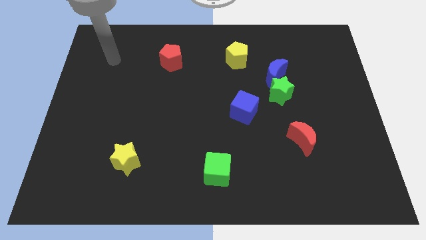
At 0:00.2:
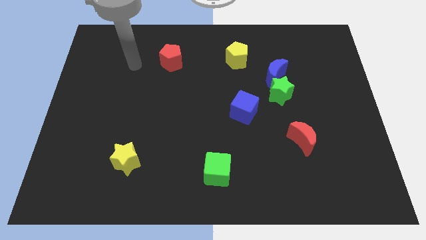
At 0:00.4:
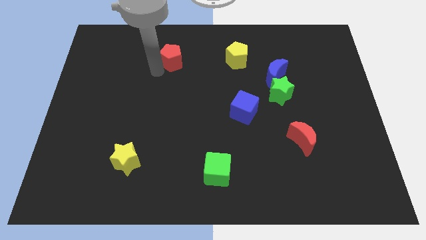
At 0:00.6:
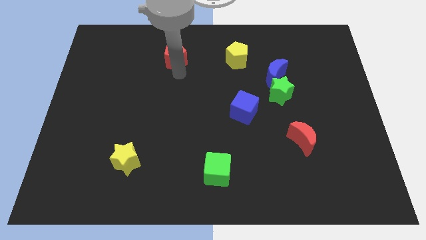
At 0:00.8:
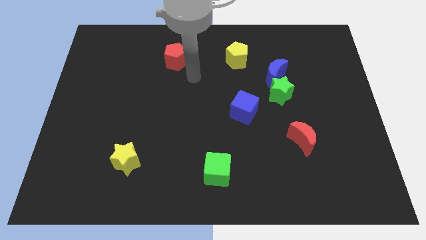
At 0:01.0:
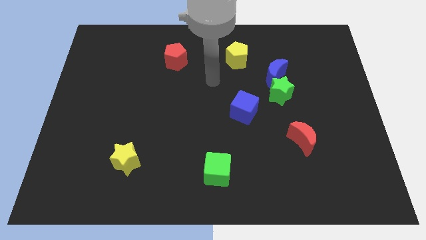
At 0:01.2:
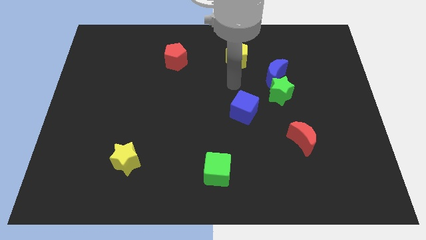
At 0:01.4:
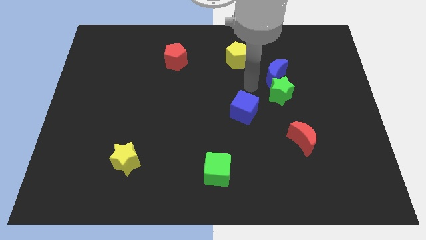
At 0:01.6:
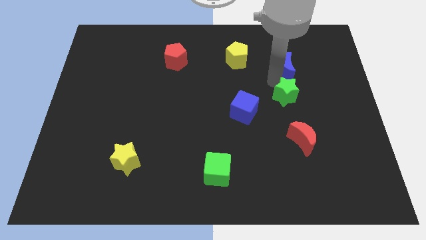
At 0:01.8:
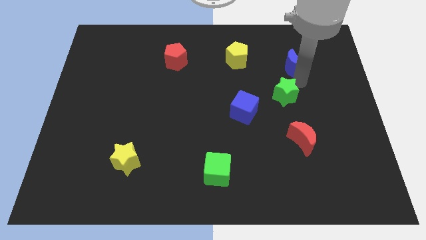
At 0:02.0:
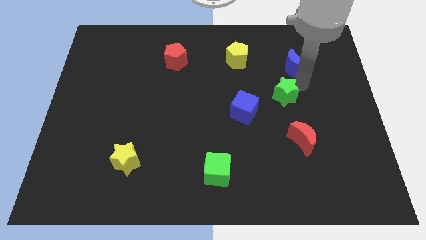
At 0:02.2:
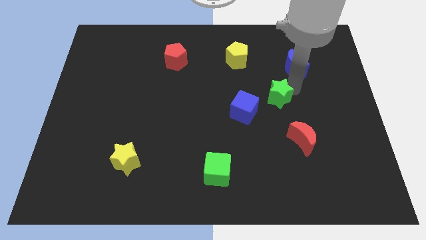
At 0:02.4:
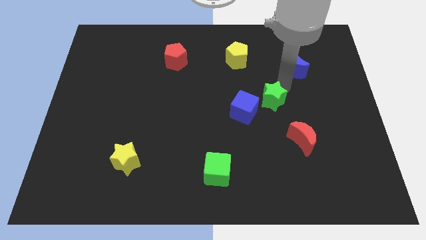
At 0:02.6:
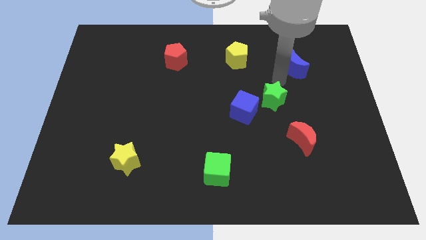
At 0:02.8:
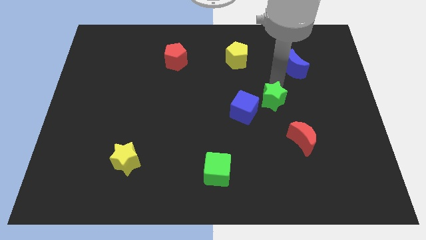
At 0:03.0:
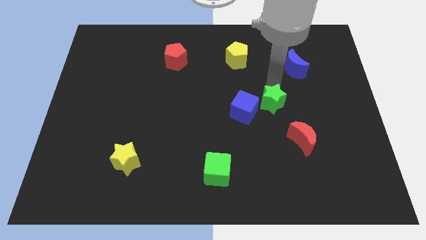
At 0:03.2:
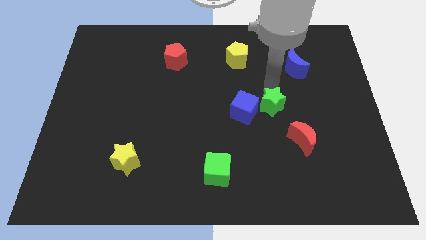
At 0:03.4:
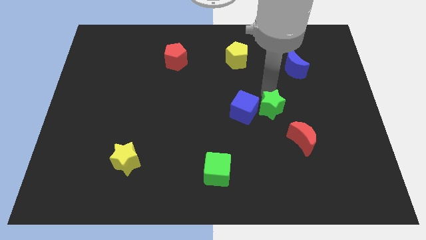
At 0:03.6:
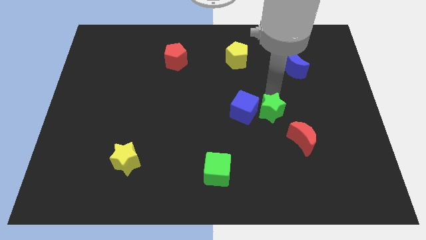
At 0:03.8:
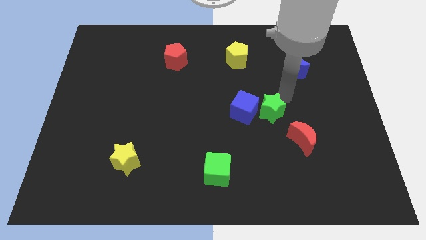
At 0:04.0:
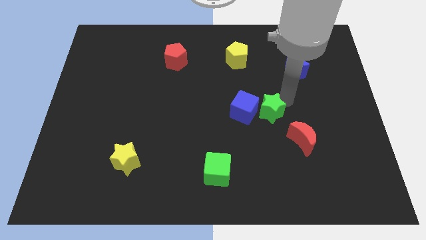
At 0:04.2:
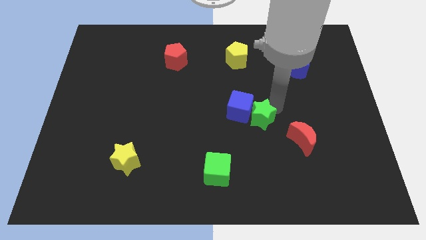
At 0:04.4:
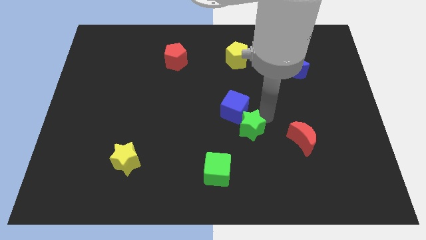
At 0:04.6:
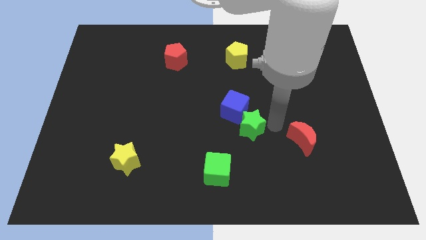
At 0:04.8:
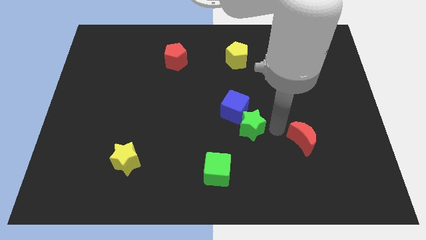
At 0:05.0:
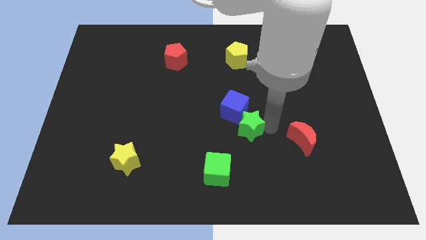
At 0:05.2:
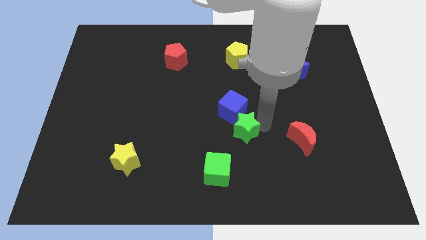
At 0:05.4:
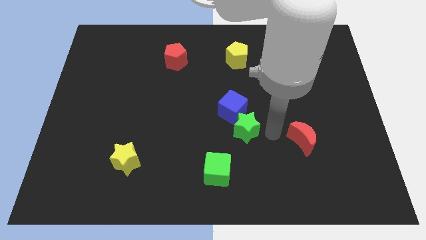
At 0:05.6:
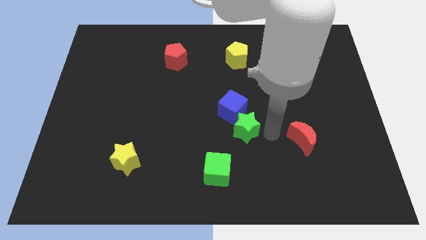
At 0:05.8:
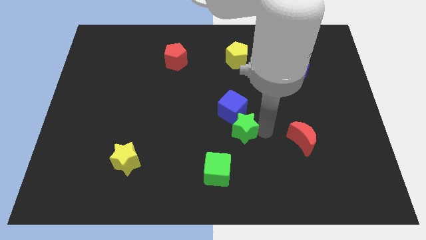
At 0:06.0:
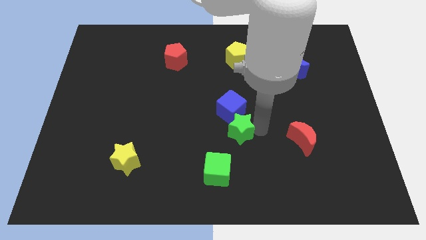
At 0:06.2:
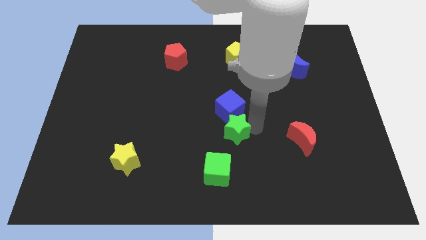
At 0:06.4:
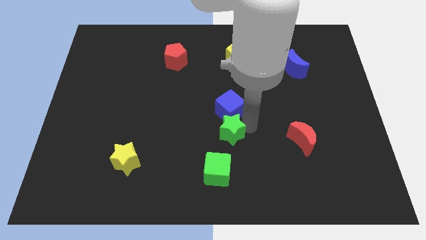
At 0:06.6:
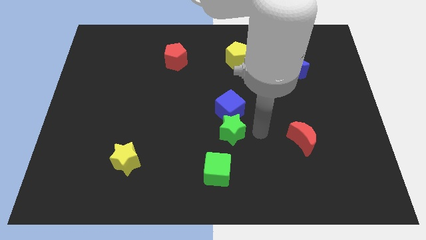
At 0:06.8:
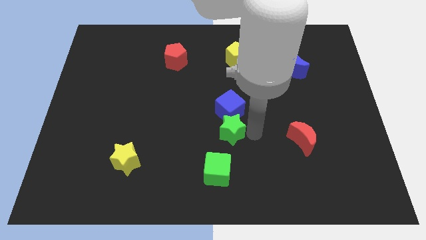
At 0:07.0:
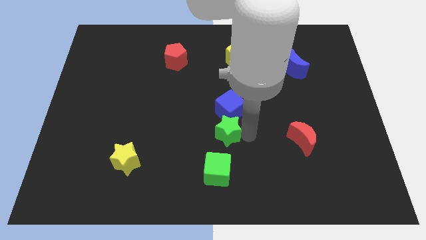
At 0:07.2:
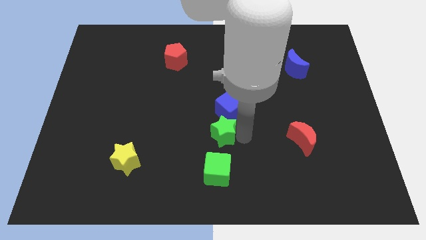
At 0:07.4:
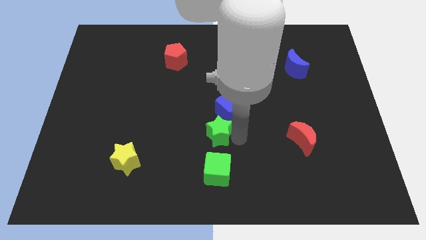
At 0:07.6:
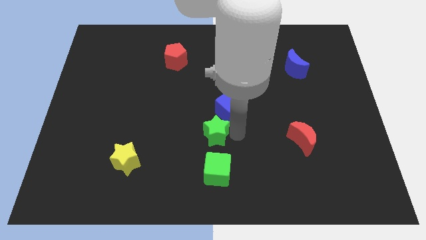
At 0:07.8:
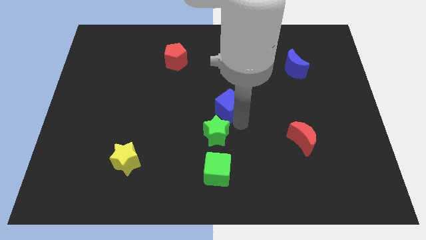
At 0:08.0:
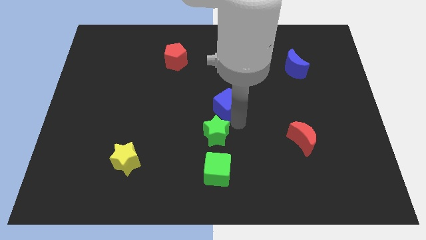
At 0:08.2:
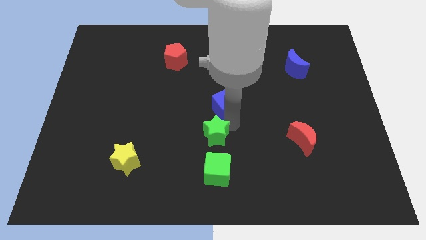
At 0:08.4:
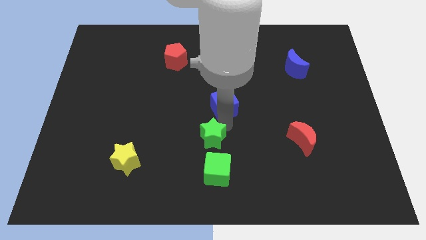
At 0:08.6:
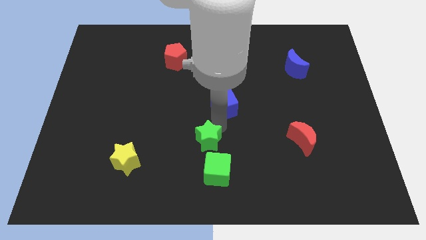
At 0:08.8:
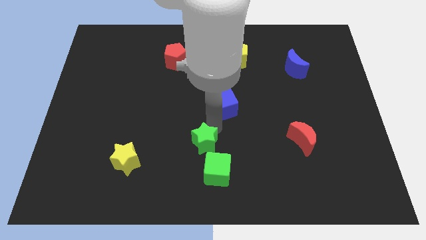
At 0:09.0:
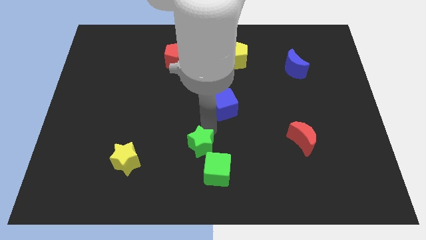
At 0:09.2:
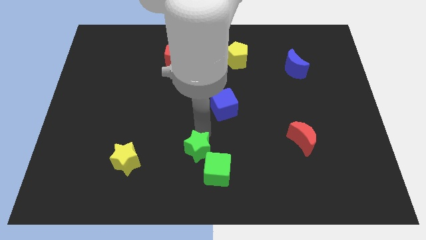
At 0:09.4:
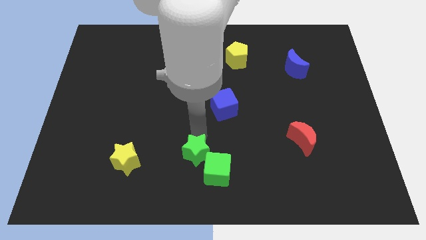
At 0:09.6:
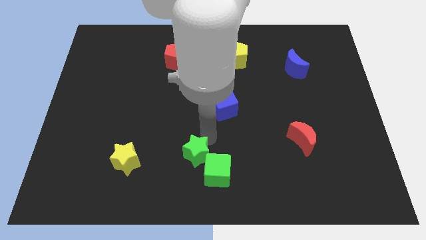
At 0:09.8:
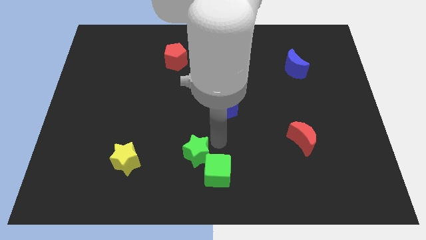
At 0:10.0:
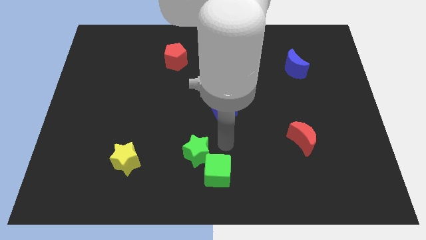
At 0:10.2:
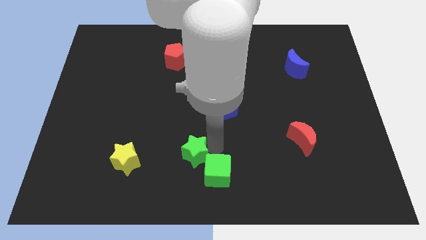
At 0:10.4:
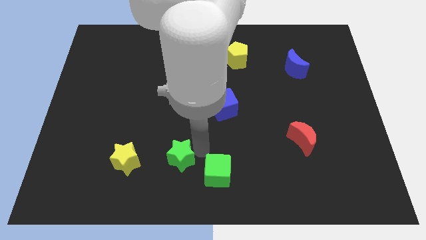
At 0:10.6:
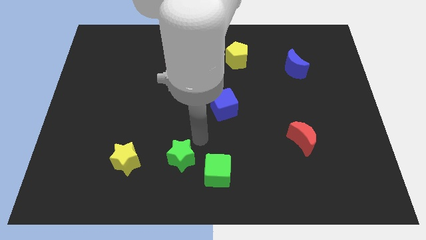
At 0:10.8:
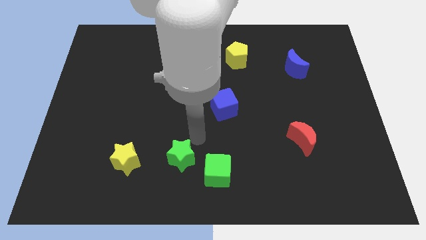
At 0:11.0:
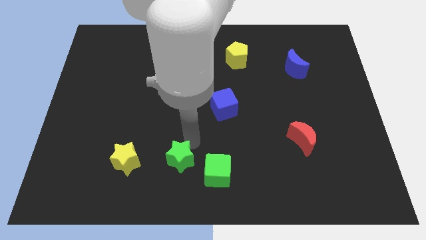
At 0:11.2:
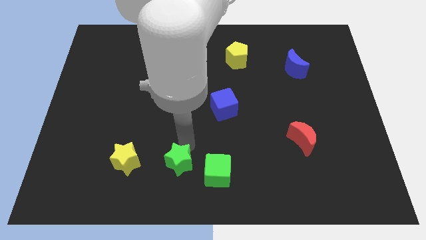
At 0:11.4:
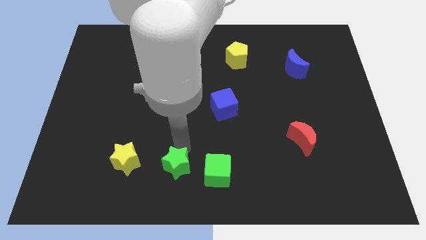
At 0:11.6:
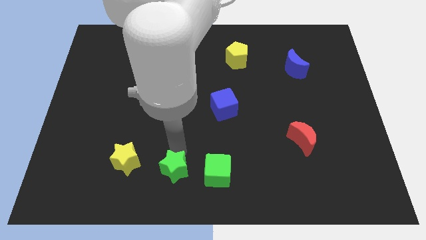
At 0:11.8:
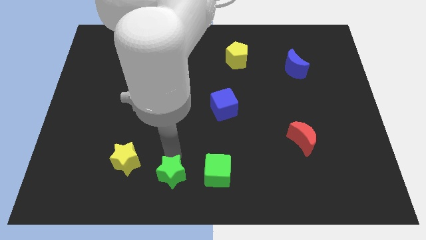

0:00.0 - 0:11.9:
move the green star diagonally down and to the right of the yellow star

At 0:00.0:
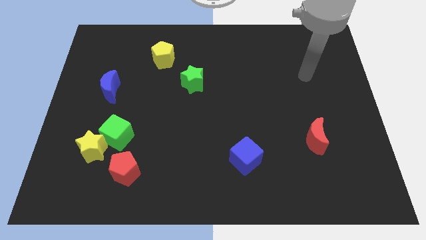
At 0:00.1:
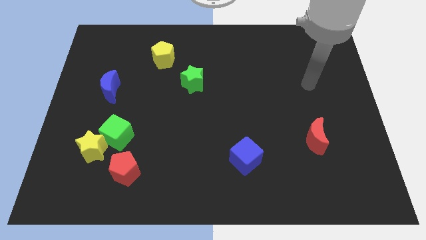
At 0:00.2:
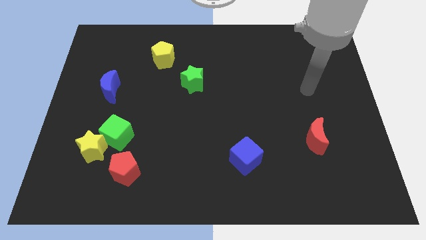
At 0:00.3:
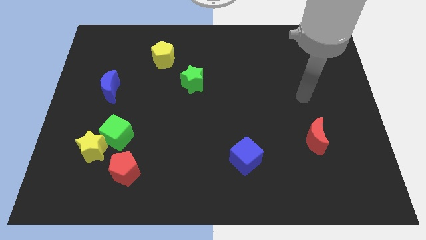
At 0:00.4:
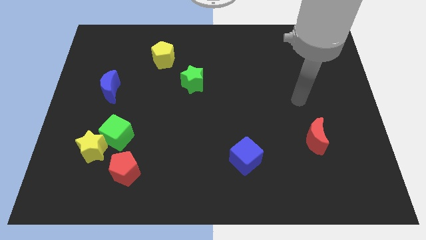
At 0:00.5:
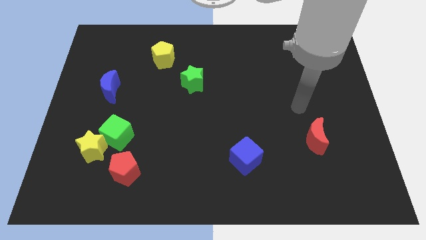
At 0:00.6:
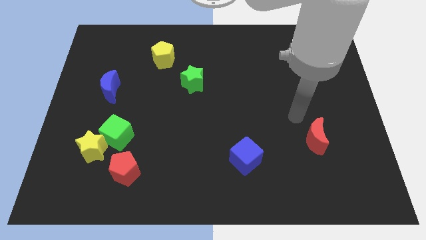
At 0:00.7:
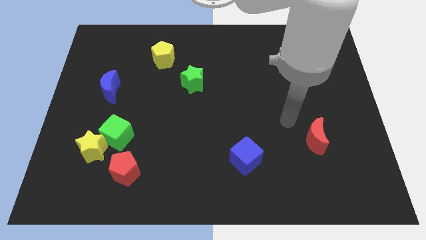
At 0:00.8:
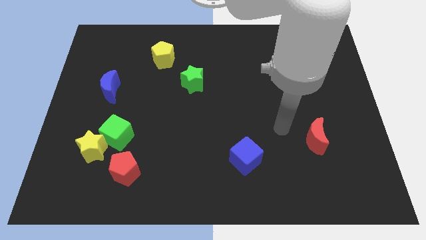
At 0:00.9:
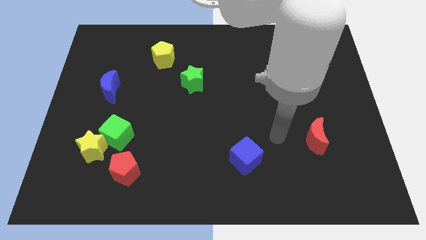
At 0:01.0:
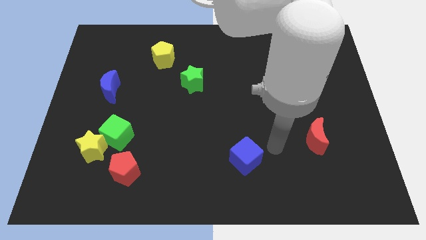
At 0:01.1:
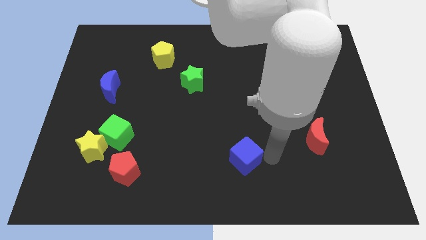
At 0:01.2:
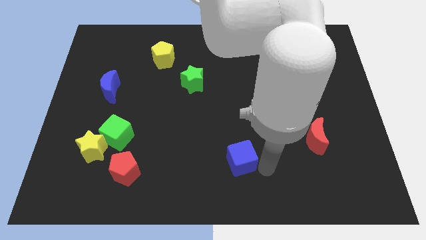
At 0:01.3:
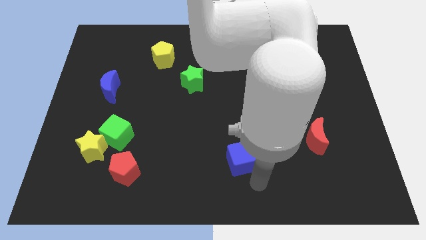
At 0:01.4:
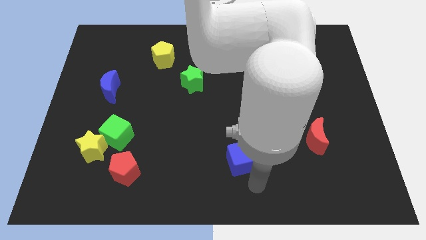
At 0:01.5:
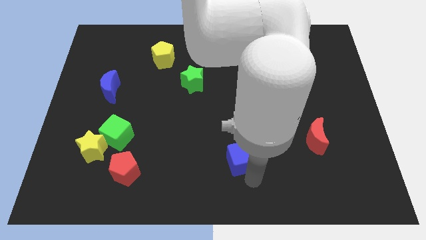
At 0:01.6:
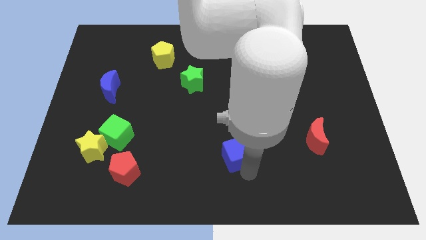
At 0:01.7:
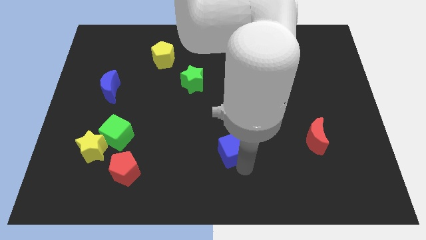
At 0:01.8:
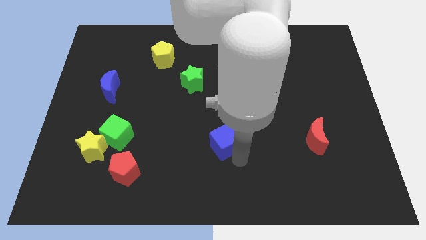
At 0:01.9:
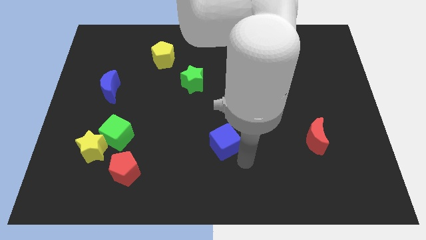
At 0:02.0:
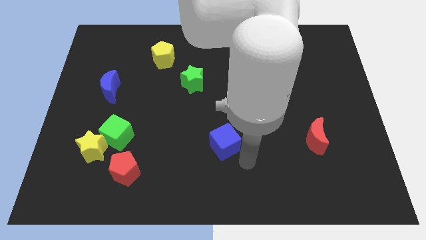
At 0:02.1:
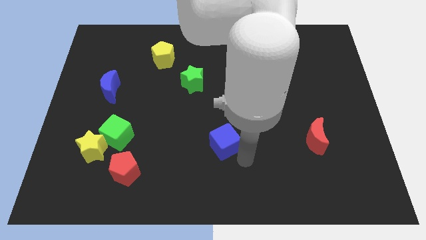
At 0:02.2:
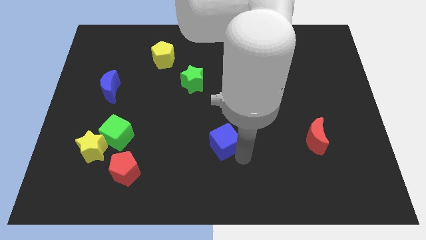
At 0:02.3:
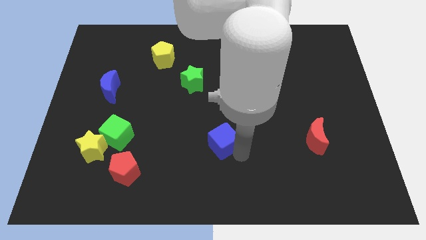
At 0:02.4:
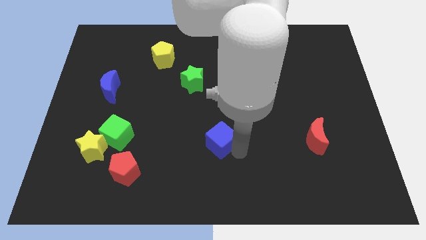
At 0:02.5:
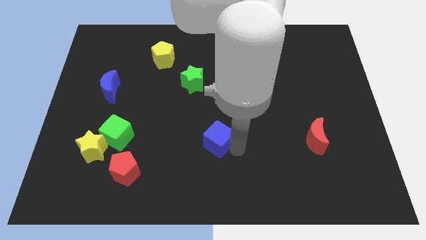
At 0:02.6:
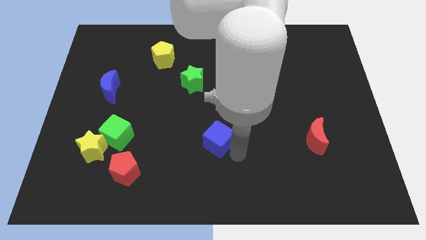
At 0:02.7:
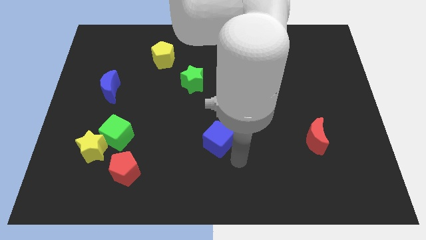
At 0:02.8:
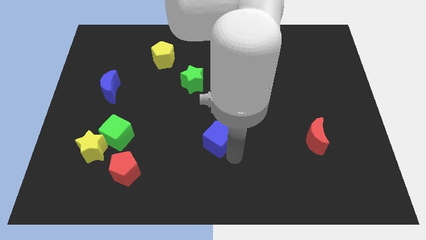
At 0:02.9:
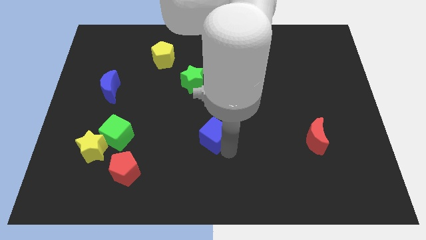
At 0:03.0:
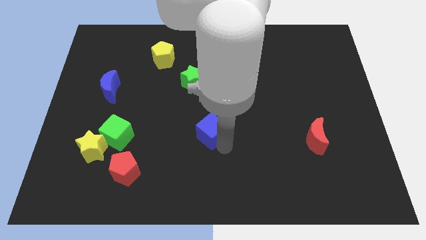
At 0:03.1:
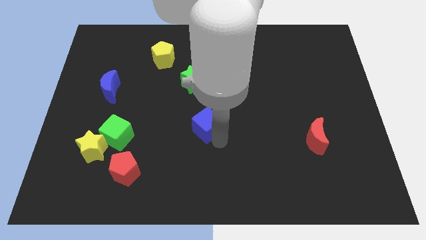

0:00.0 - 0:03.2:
slide the blue cube to the bottom side of the green star
